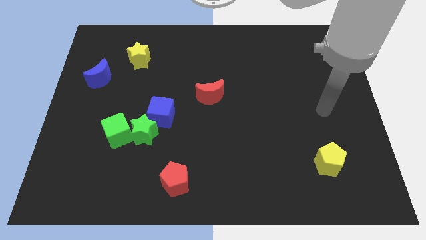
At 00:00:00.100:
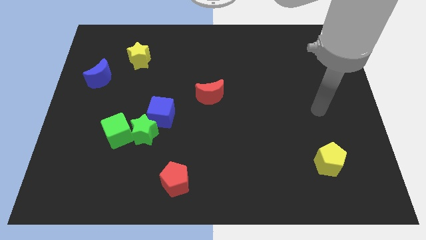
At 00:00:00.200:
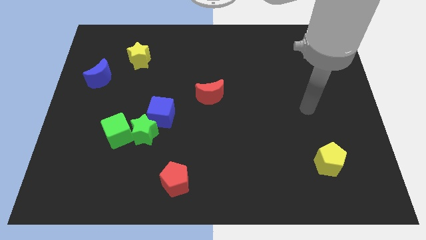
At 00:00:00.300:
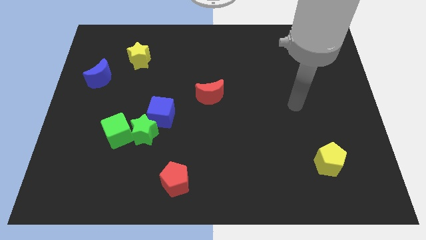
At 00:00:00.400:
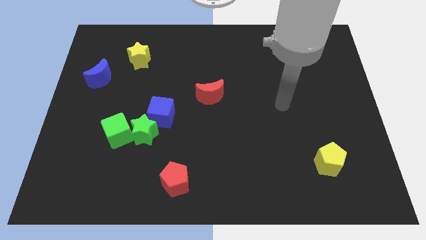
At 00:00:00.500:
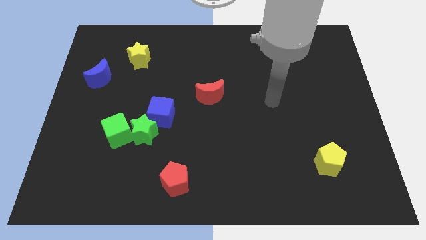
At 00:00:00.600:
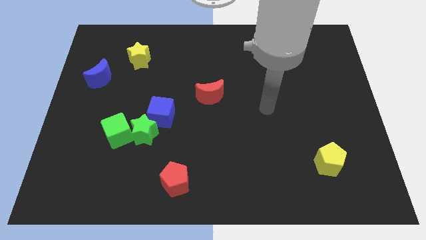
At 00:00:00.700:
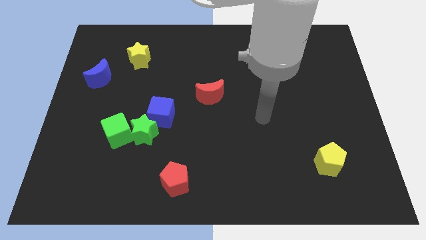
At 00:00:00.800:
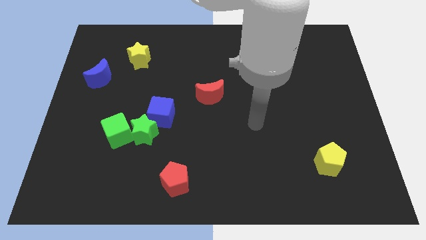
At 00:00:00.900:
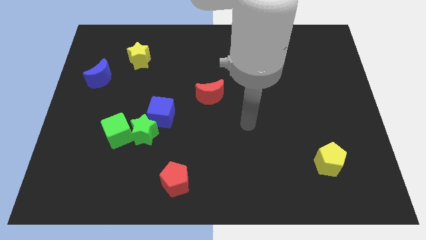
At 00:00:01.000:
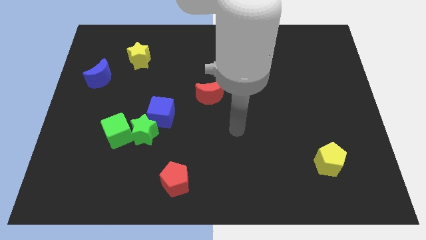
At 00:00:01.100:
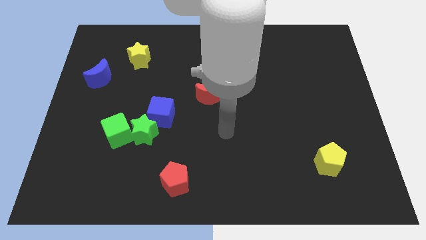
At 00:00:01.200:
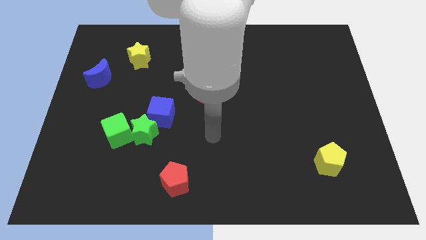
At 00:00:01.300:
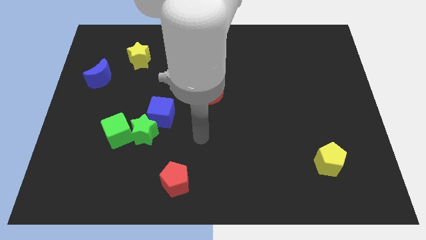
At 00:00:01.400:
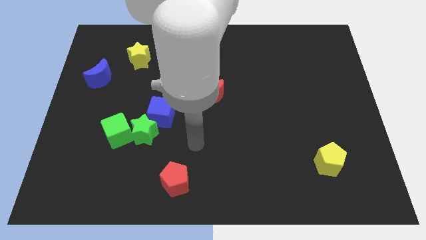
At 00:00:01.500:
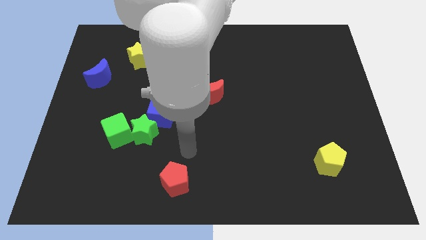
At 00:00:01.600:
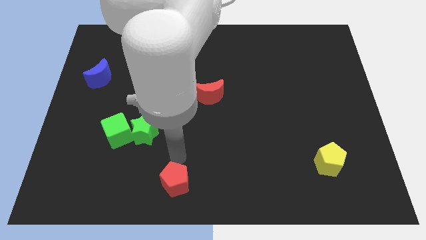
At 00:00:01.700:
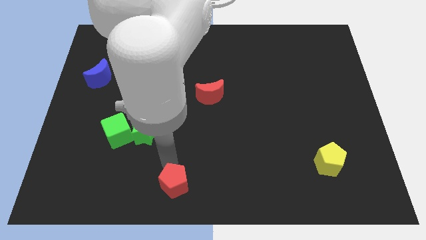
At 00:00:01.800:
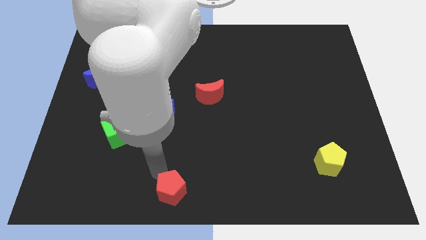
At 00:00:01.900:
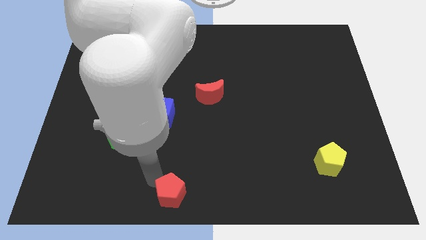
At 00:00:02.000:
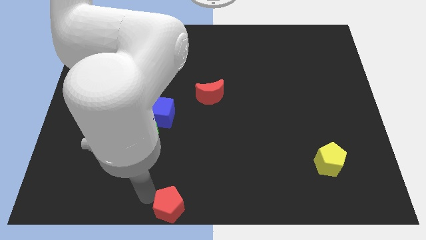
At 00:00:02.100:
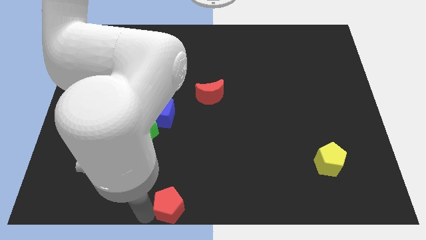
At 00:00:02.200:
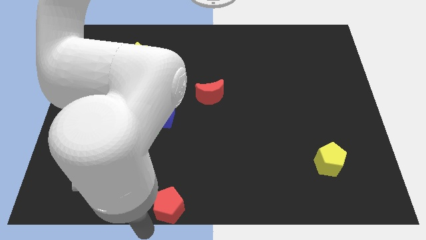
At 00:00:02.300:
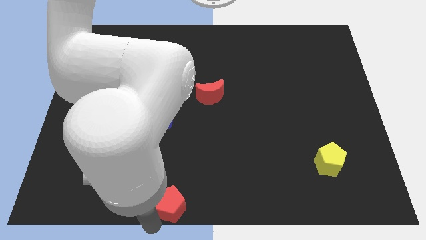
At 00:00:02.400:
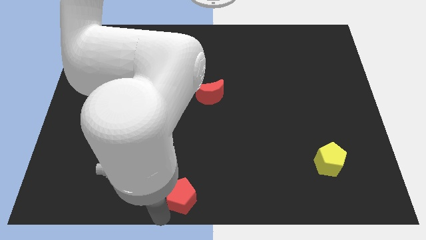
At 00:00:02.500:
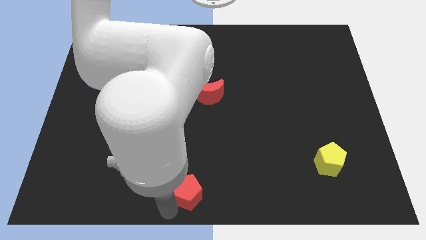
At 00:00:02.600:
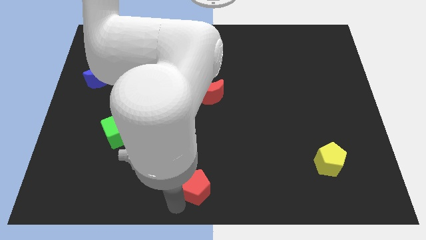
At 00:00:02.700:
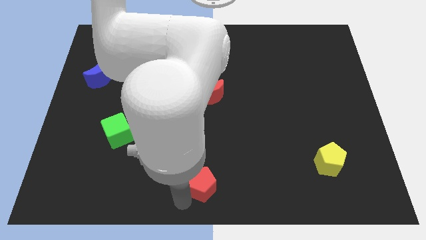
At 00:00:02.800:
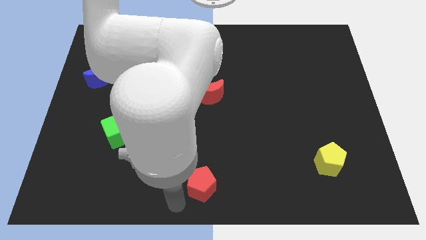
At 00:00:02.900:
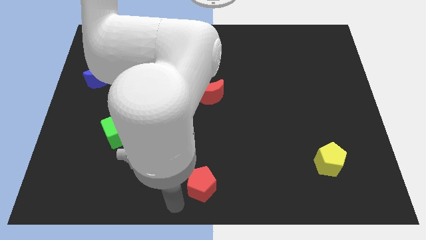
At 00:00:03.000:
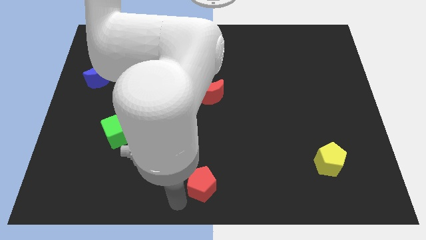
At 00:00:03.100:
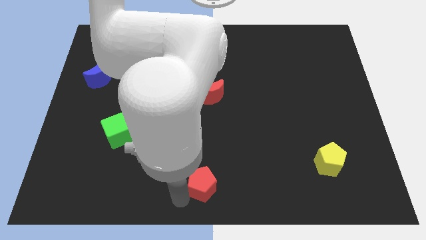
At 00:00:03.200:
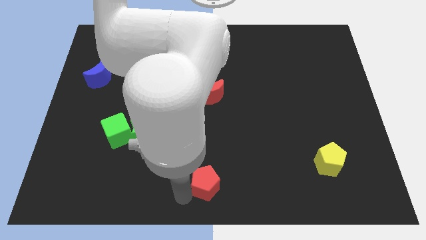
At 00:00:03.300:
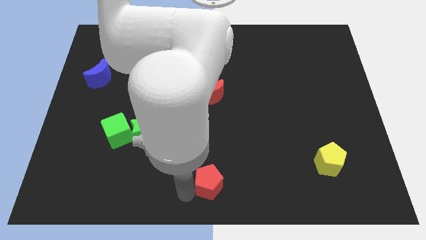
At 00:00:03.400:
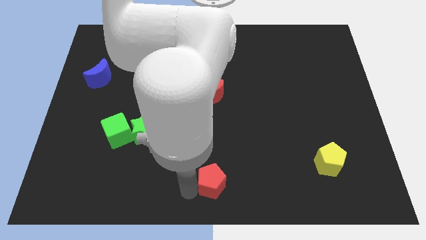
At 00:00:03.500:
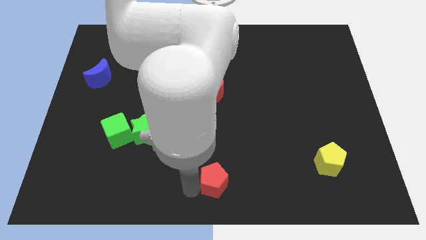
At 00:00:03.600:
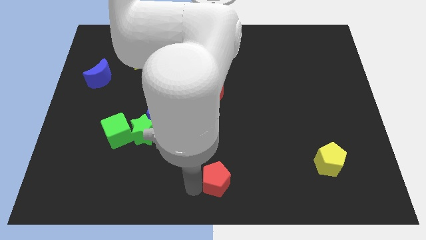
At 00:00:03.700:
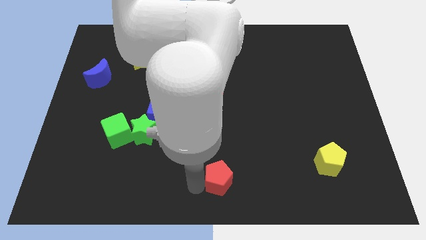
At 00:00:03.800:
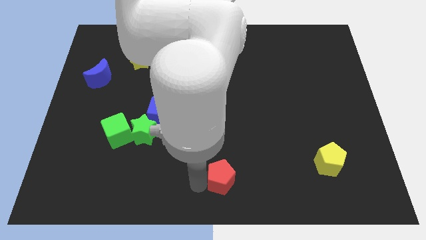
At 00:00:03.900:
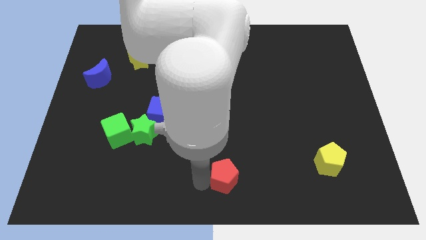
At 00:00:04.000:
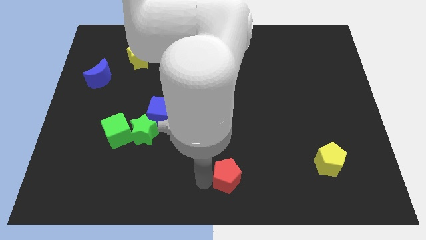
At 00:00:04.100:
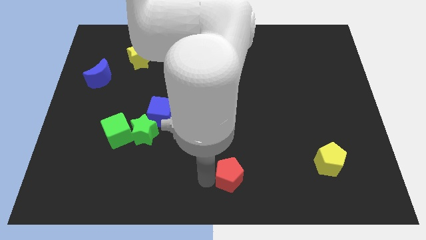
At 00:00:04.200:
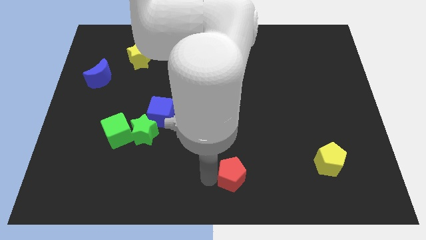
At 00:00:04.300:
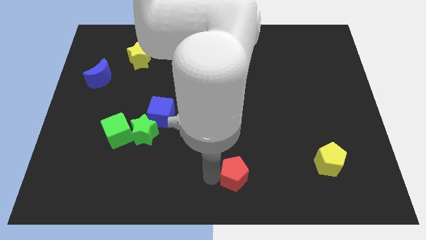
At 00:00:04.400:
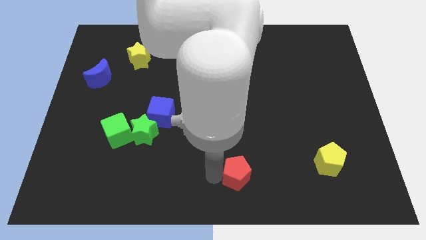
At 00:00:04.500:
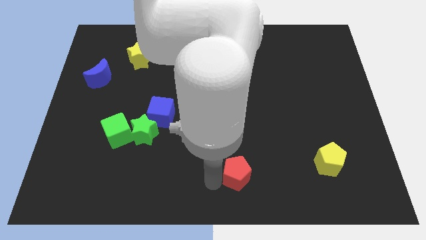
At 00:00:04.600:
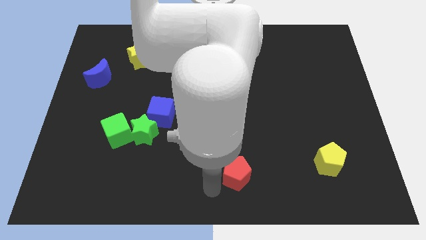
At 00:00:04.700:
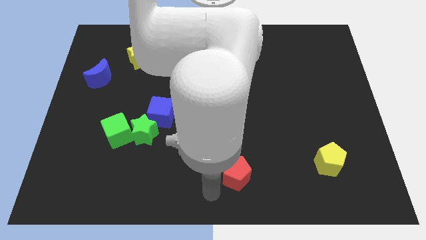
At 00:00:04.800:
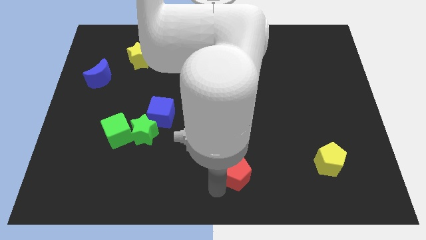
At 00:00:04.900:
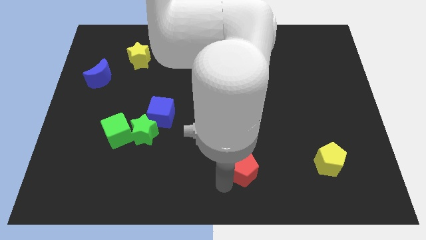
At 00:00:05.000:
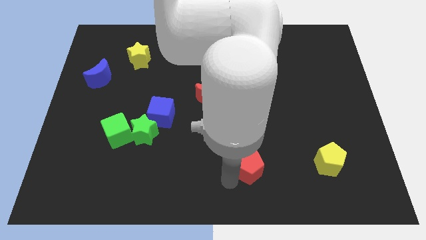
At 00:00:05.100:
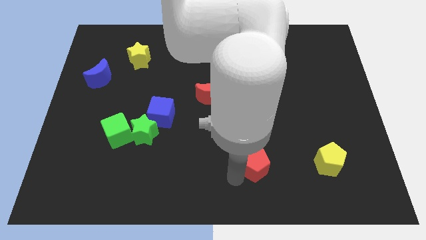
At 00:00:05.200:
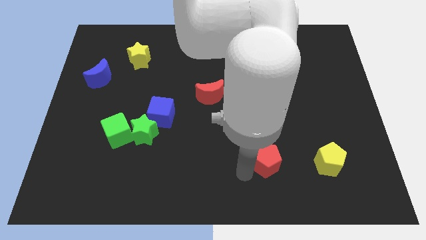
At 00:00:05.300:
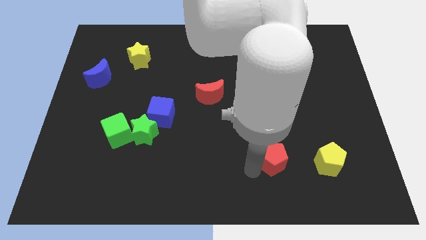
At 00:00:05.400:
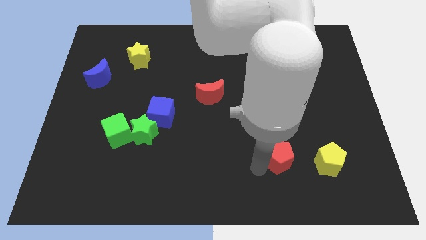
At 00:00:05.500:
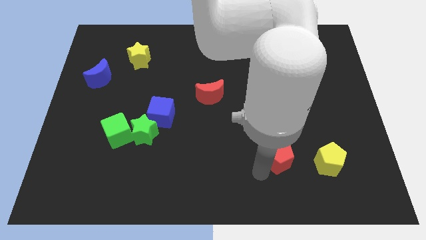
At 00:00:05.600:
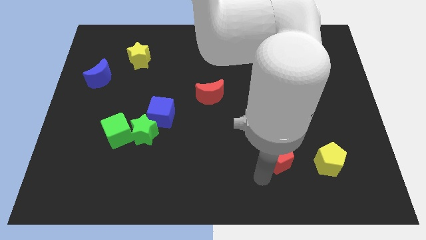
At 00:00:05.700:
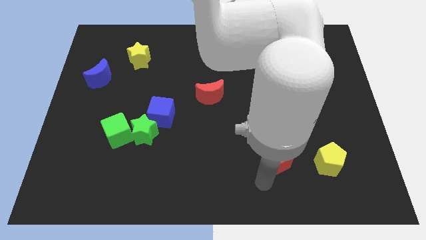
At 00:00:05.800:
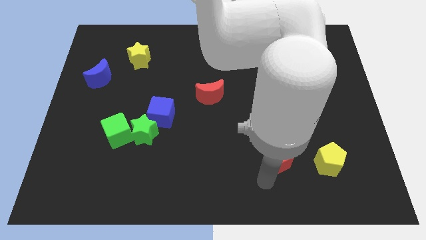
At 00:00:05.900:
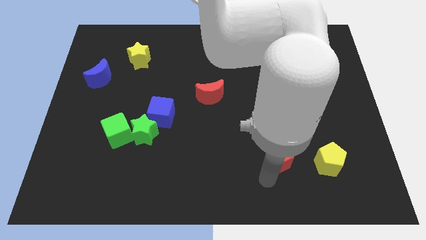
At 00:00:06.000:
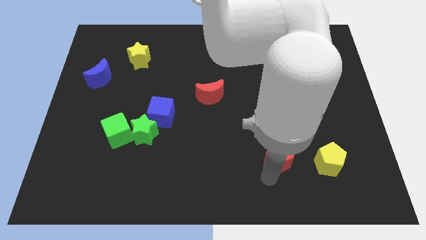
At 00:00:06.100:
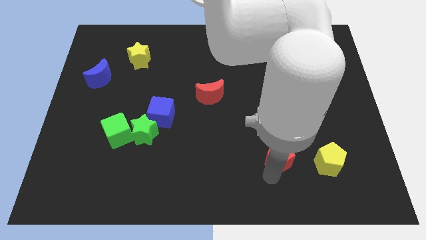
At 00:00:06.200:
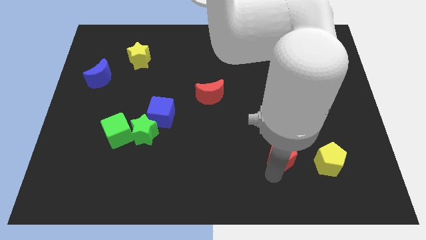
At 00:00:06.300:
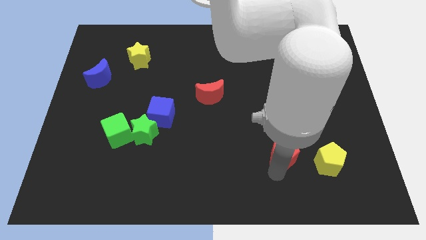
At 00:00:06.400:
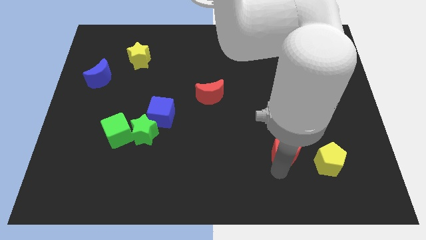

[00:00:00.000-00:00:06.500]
slide the red pentagon diagonally up and to the left of the yellow pentagon

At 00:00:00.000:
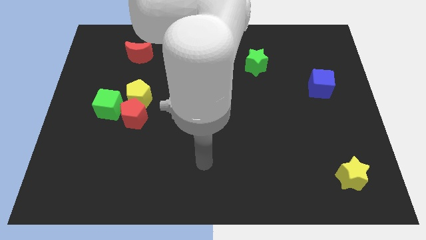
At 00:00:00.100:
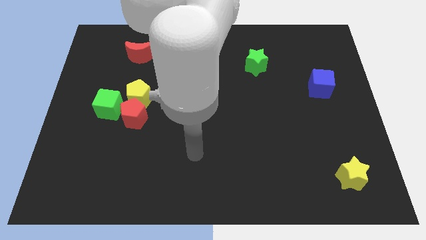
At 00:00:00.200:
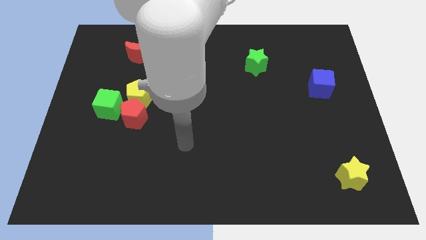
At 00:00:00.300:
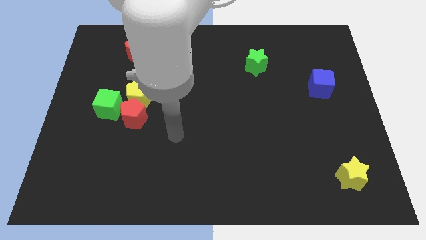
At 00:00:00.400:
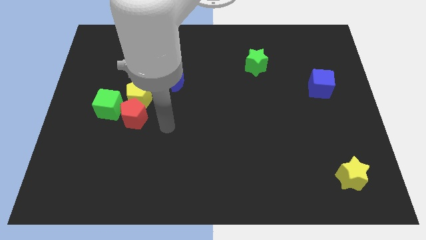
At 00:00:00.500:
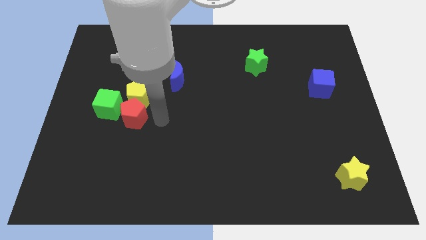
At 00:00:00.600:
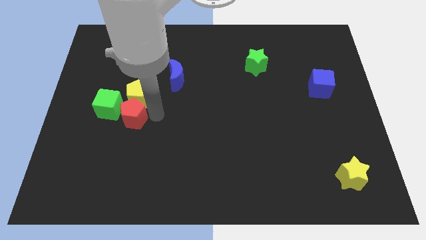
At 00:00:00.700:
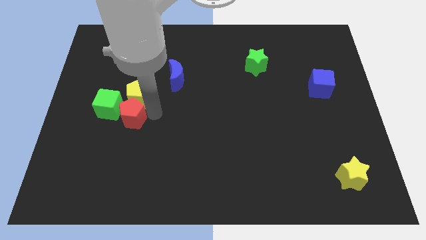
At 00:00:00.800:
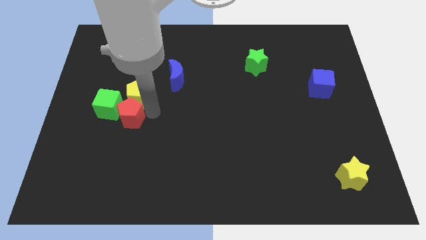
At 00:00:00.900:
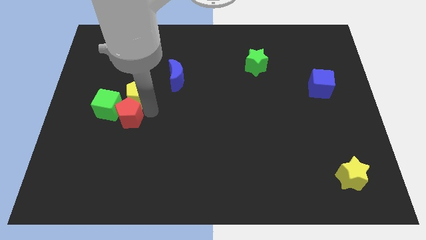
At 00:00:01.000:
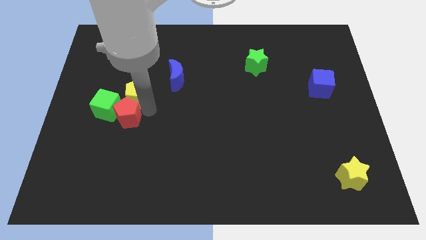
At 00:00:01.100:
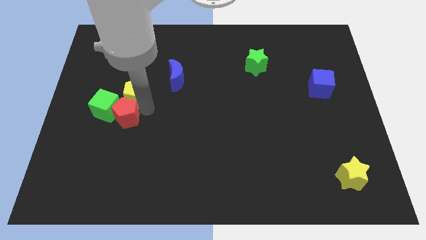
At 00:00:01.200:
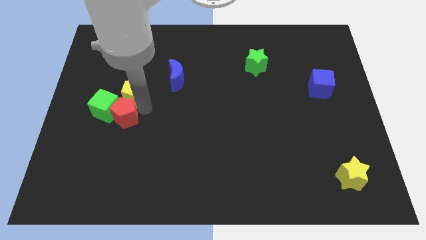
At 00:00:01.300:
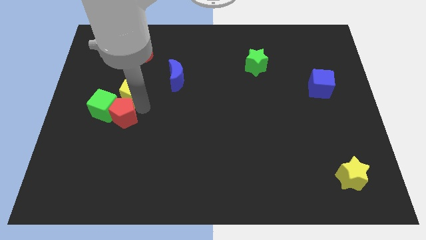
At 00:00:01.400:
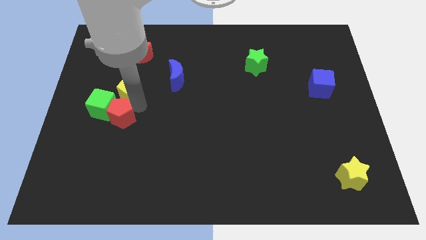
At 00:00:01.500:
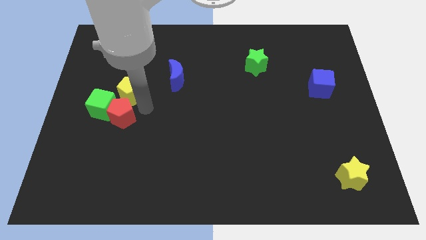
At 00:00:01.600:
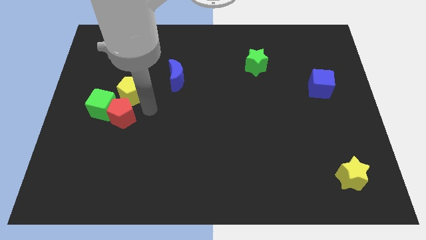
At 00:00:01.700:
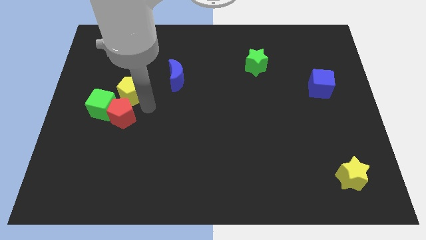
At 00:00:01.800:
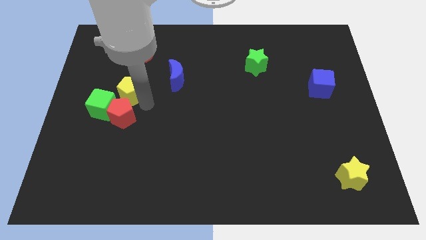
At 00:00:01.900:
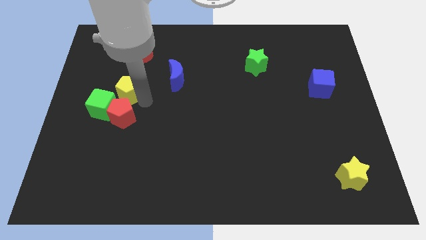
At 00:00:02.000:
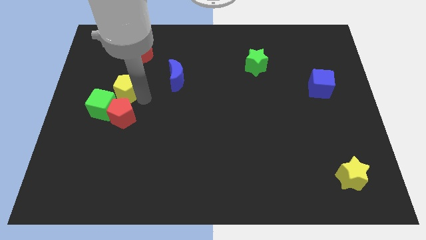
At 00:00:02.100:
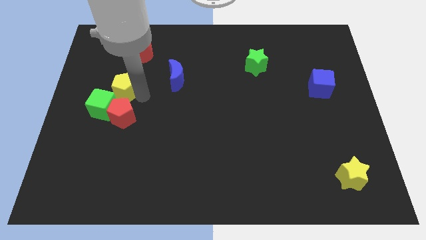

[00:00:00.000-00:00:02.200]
put the yellow pentagon to the top of the green cube
